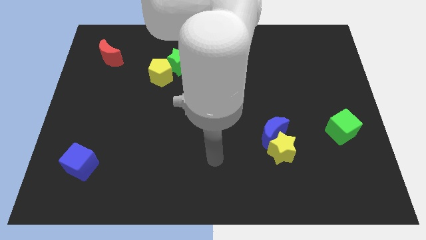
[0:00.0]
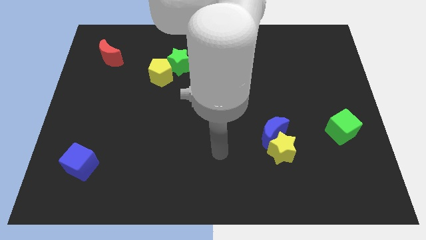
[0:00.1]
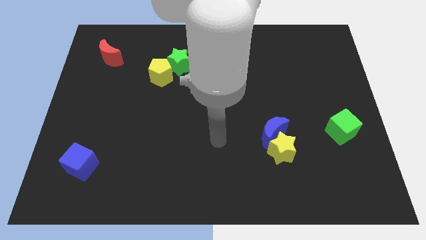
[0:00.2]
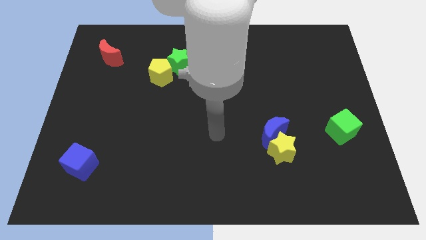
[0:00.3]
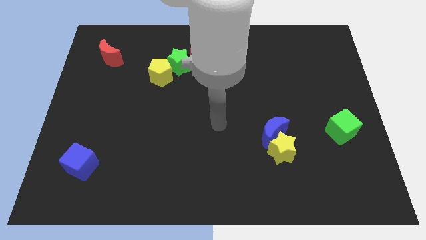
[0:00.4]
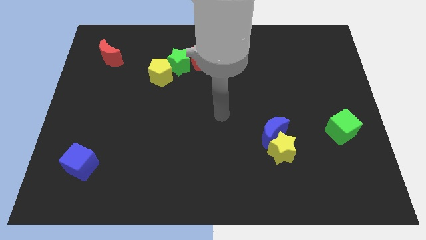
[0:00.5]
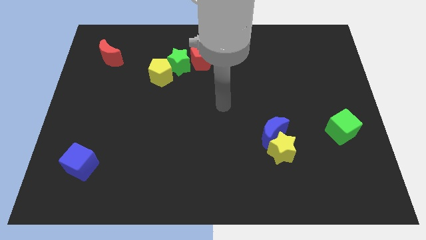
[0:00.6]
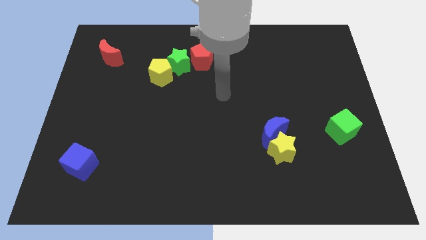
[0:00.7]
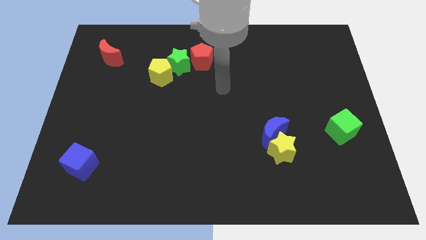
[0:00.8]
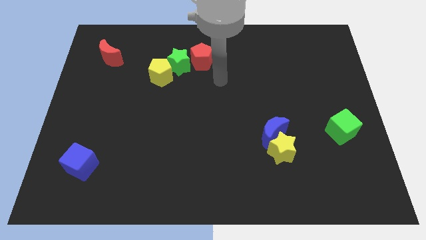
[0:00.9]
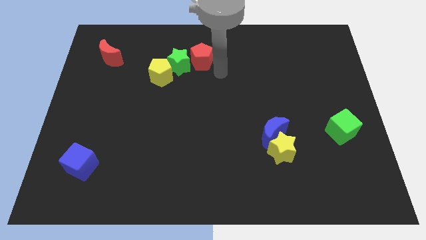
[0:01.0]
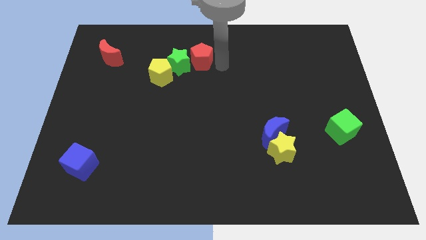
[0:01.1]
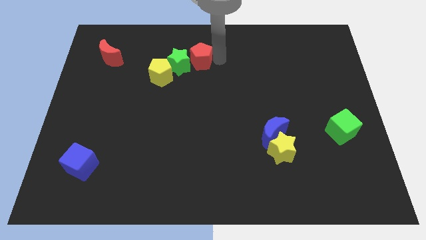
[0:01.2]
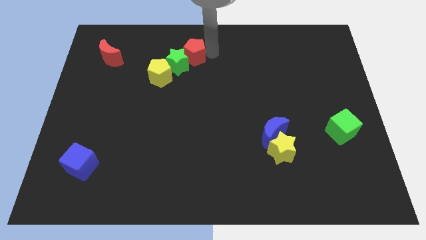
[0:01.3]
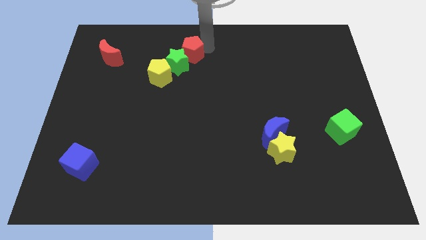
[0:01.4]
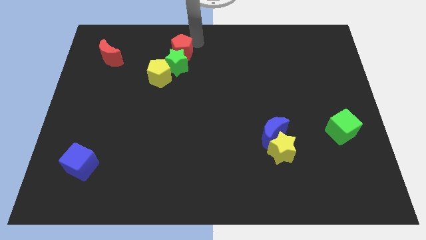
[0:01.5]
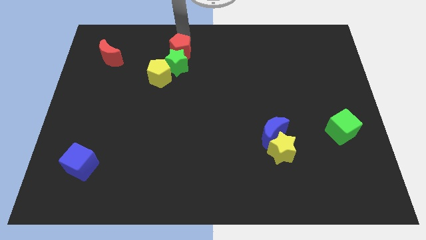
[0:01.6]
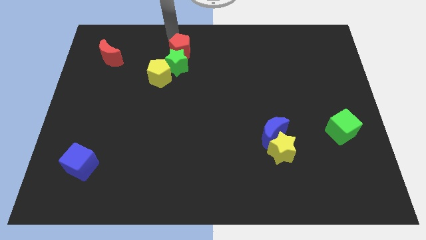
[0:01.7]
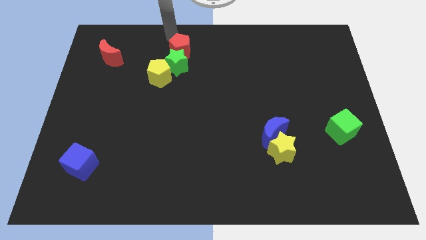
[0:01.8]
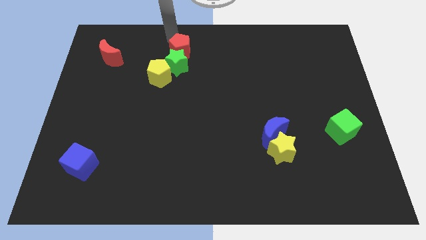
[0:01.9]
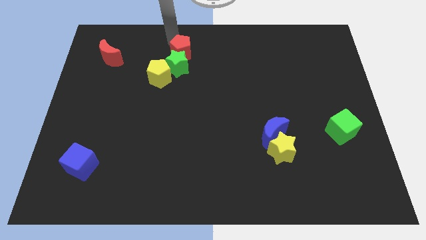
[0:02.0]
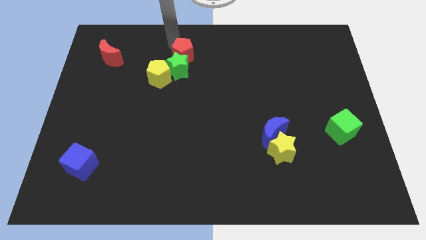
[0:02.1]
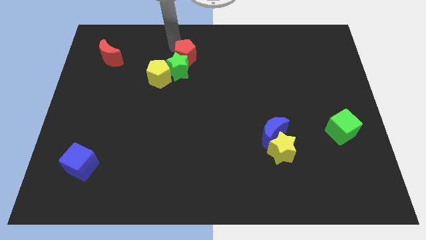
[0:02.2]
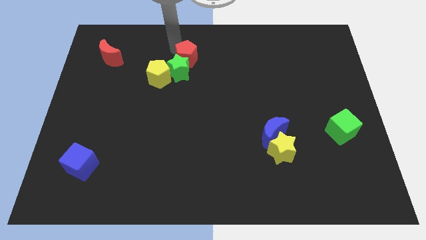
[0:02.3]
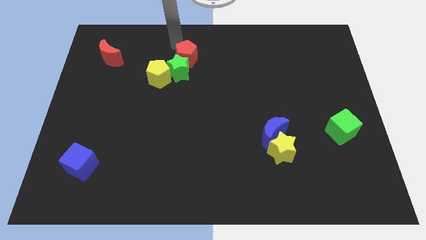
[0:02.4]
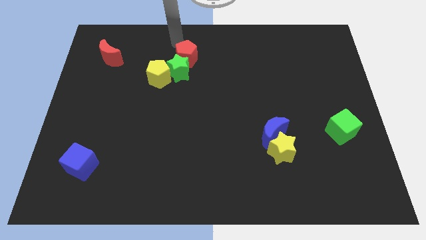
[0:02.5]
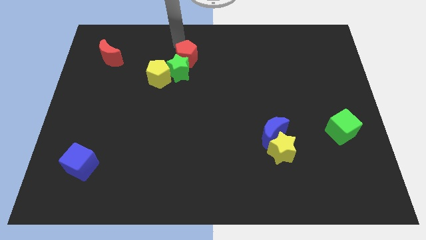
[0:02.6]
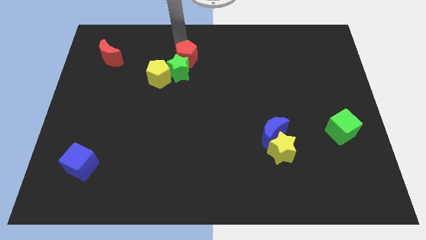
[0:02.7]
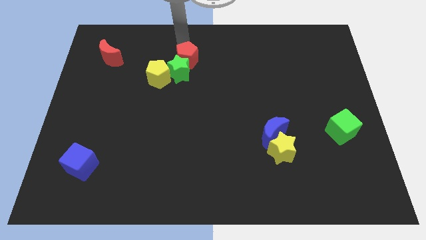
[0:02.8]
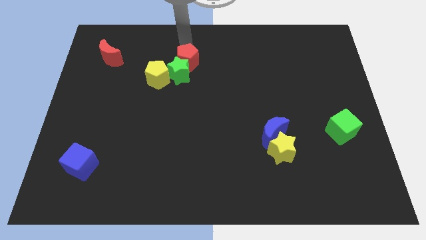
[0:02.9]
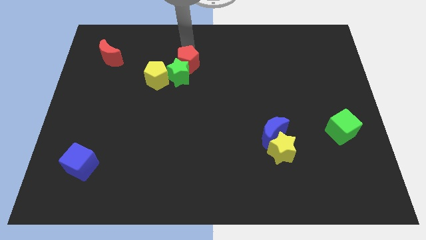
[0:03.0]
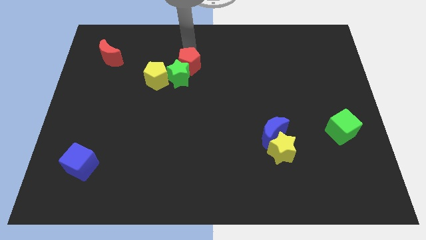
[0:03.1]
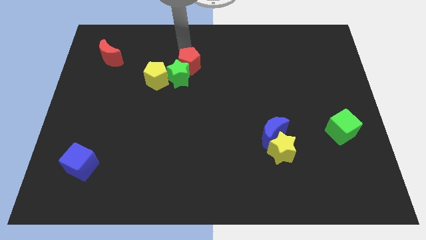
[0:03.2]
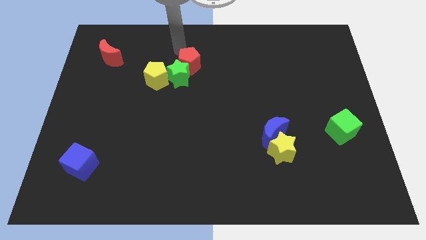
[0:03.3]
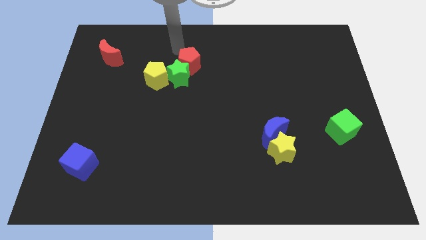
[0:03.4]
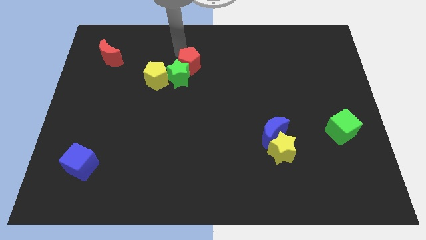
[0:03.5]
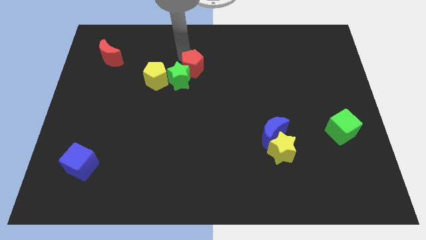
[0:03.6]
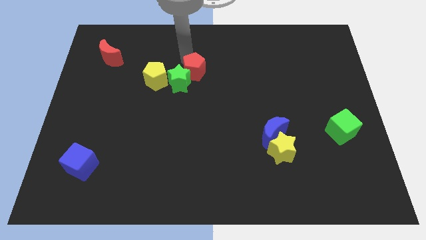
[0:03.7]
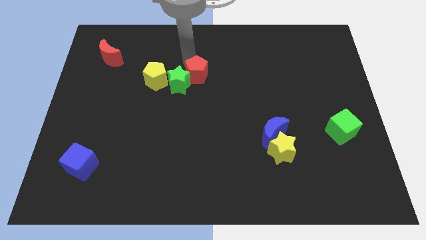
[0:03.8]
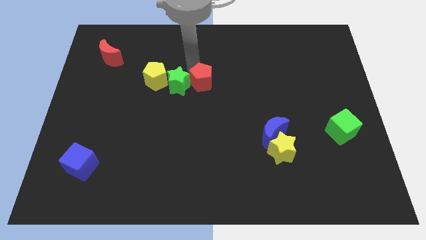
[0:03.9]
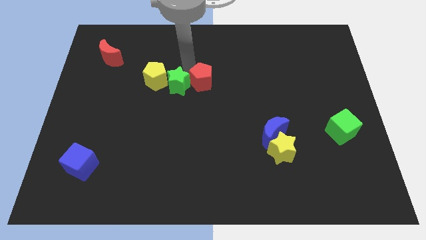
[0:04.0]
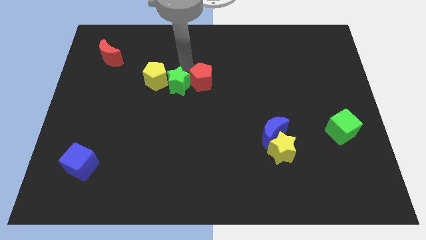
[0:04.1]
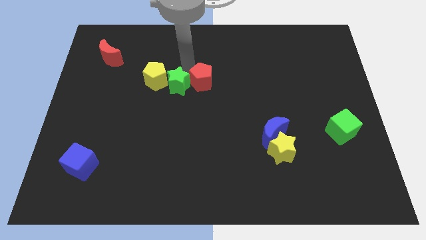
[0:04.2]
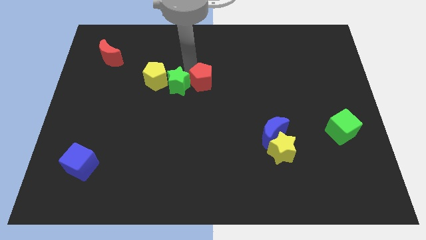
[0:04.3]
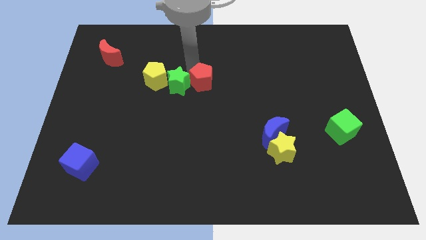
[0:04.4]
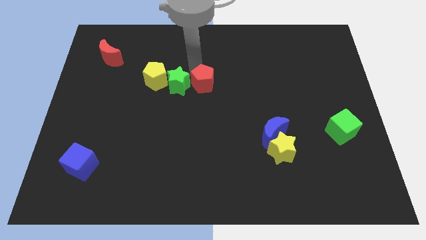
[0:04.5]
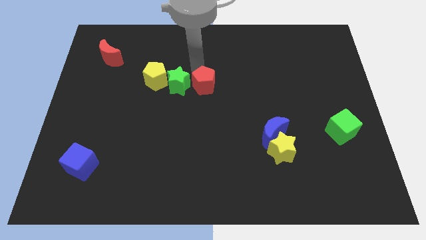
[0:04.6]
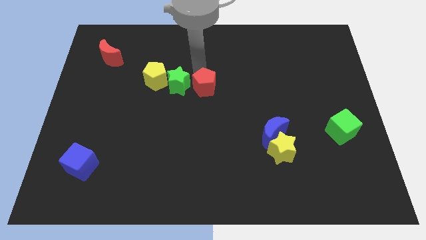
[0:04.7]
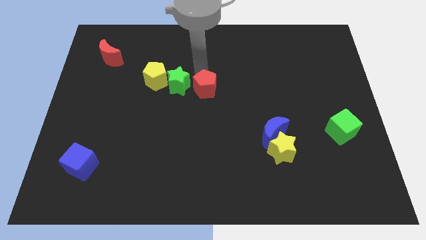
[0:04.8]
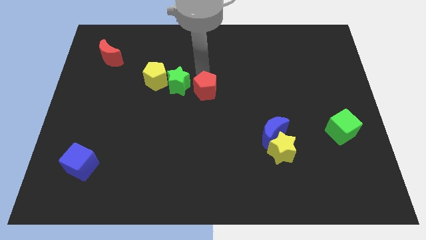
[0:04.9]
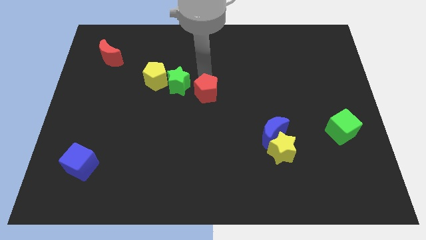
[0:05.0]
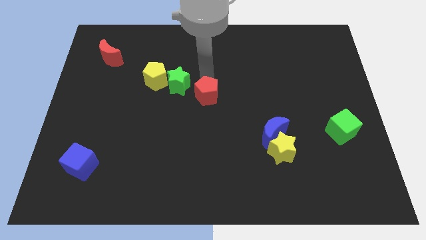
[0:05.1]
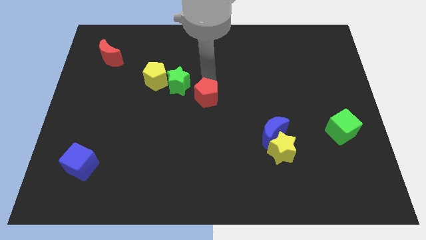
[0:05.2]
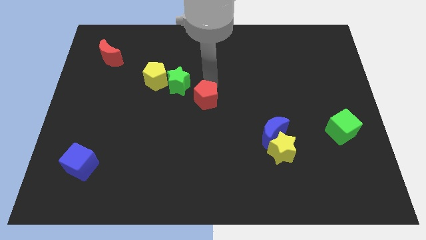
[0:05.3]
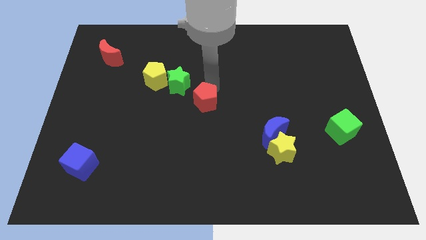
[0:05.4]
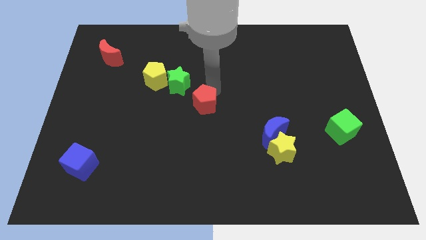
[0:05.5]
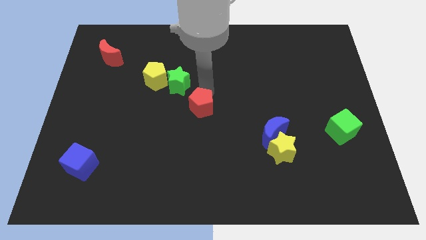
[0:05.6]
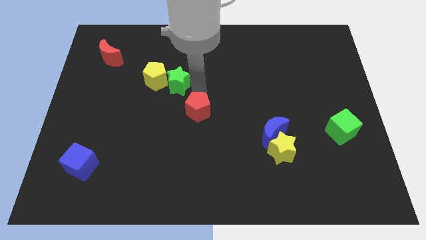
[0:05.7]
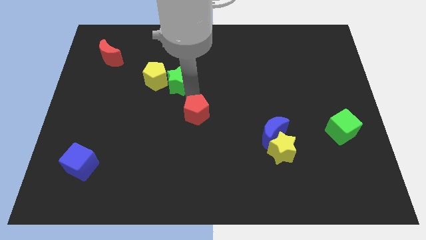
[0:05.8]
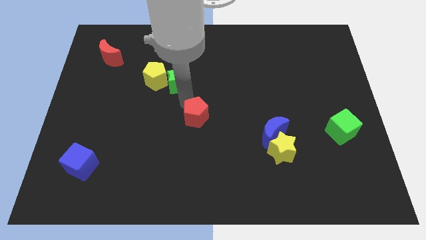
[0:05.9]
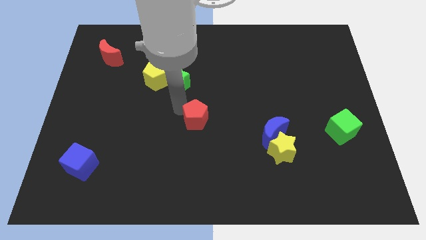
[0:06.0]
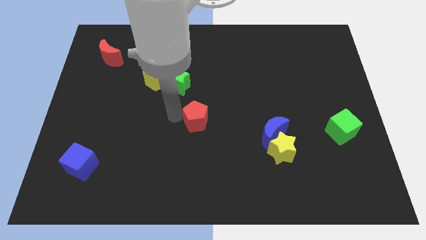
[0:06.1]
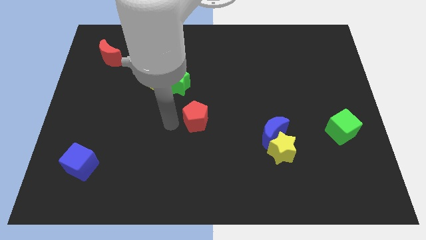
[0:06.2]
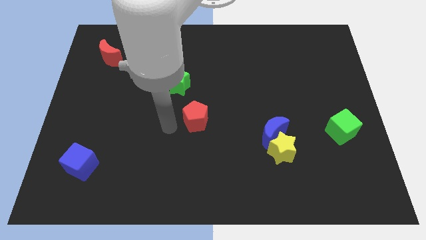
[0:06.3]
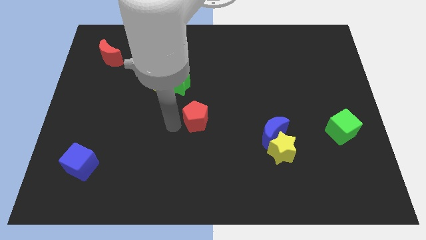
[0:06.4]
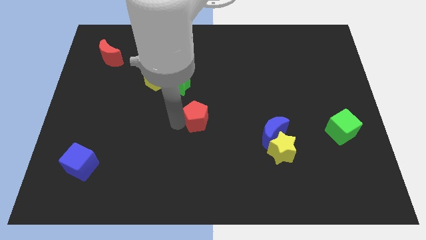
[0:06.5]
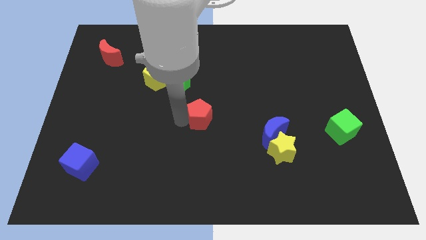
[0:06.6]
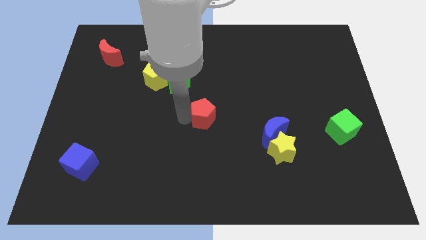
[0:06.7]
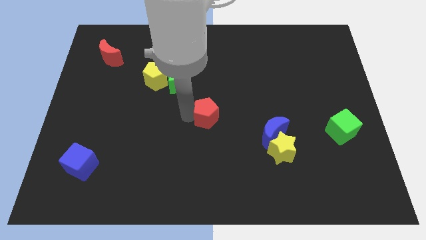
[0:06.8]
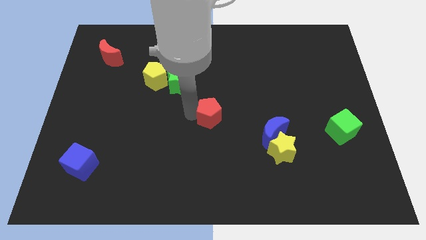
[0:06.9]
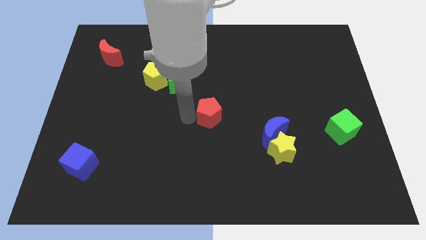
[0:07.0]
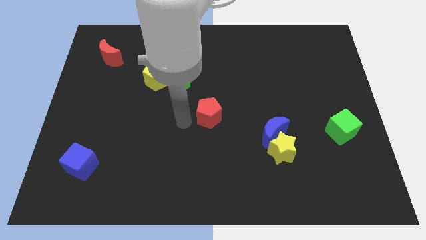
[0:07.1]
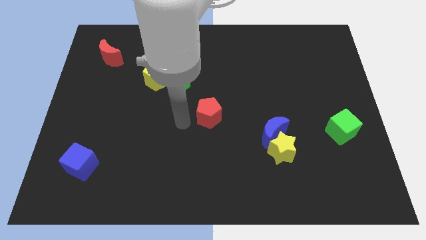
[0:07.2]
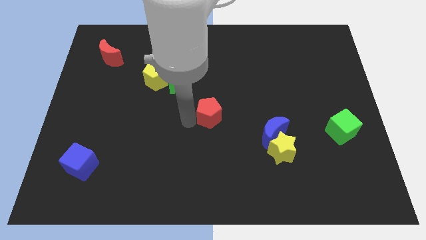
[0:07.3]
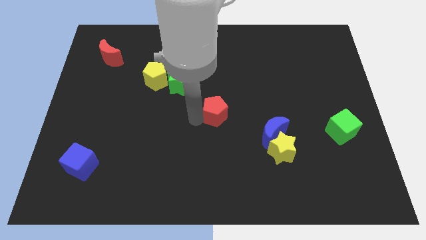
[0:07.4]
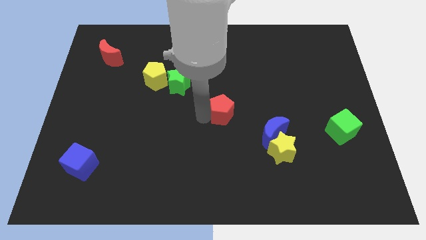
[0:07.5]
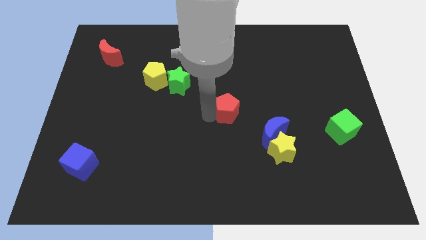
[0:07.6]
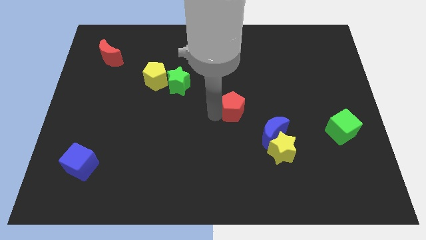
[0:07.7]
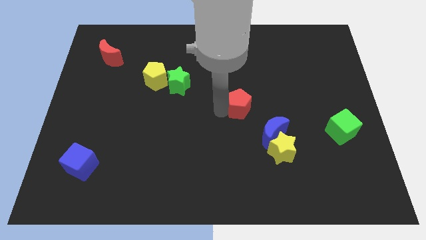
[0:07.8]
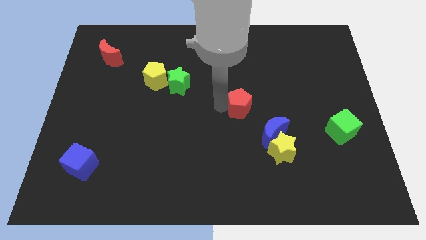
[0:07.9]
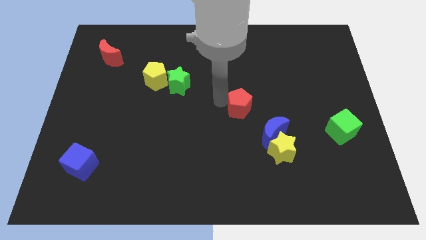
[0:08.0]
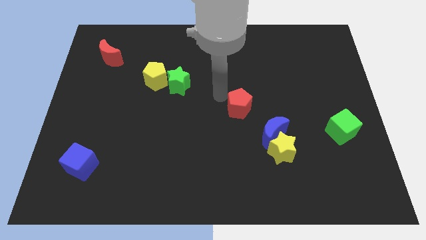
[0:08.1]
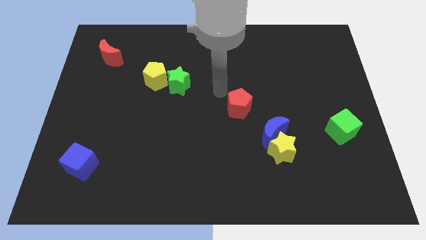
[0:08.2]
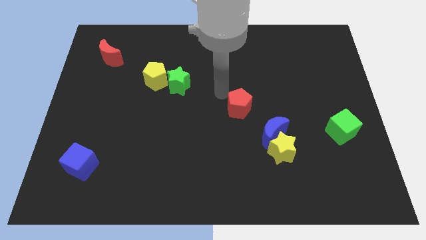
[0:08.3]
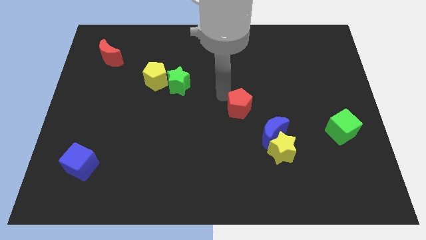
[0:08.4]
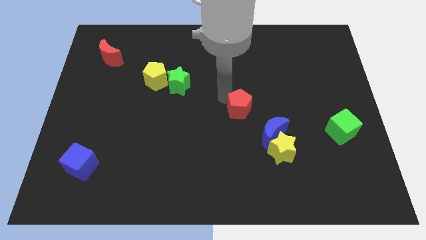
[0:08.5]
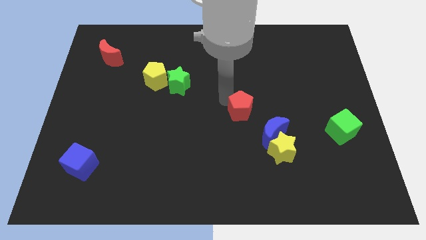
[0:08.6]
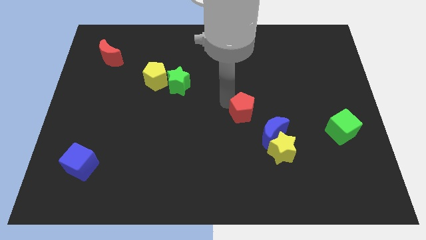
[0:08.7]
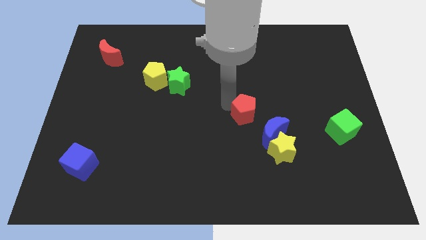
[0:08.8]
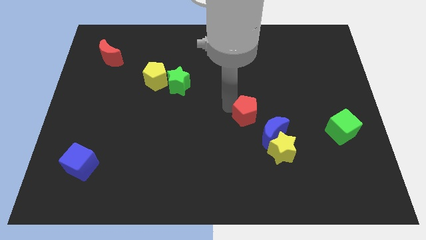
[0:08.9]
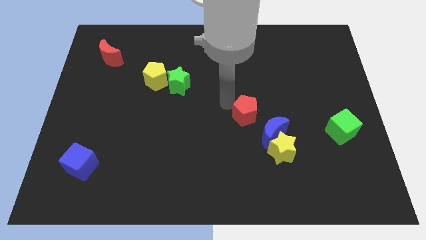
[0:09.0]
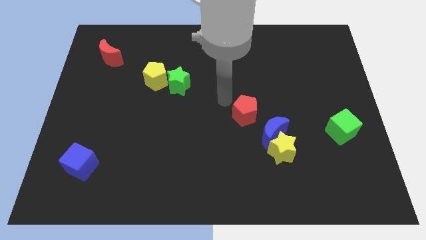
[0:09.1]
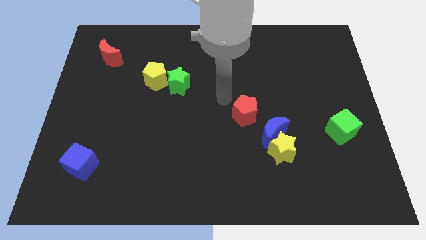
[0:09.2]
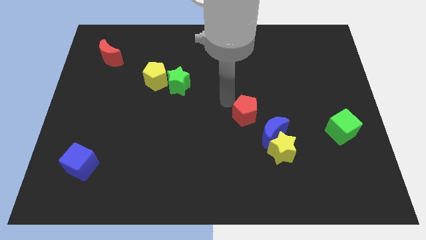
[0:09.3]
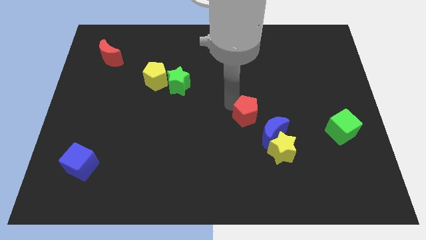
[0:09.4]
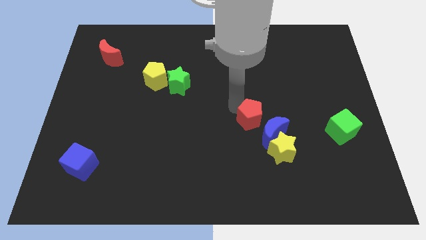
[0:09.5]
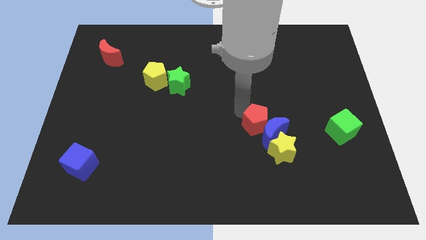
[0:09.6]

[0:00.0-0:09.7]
push the red pentagon next to the blue moon
